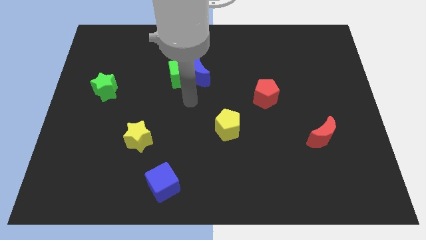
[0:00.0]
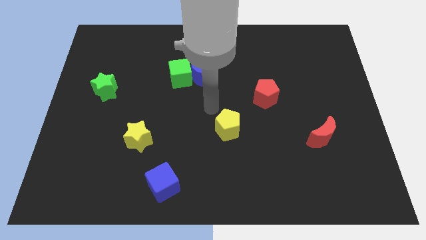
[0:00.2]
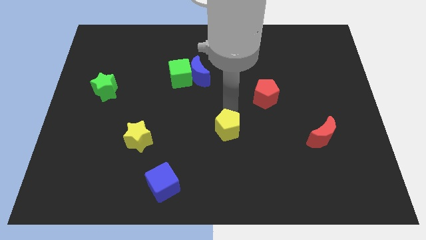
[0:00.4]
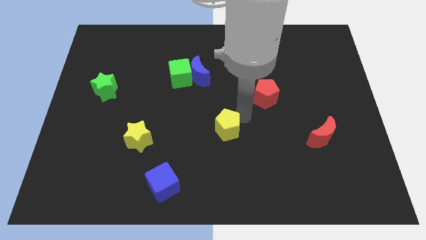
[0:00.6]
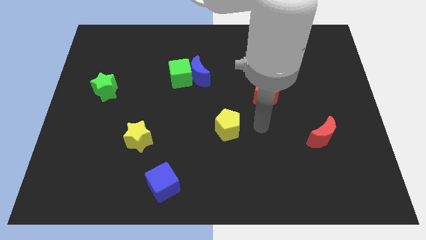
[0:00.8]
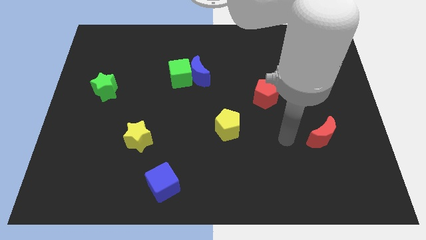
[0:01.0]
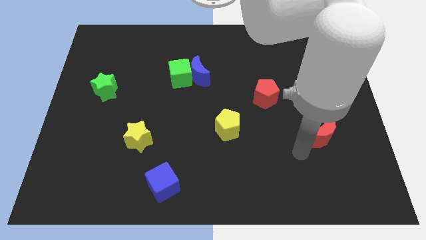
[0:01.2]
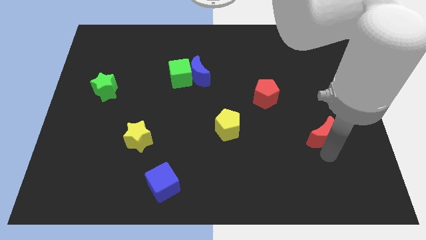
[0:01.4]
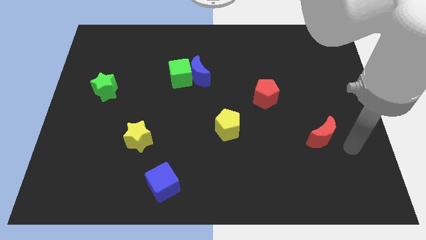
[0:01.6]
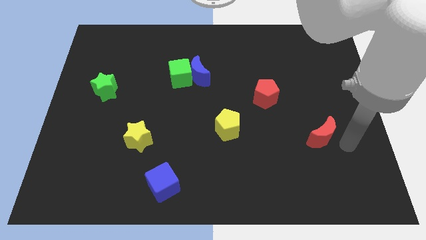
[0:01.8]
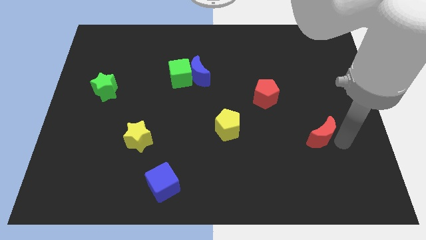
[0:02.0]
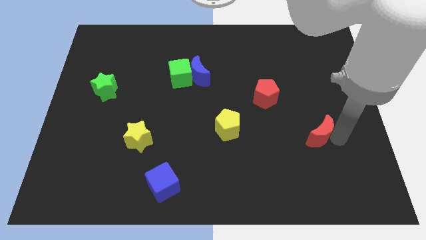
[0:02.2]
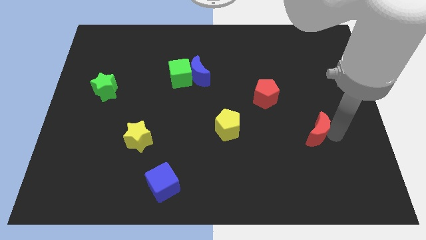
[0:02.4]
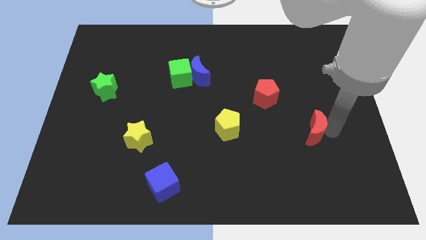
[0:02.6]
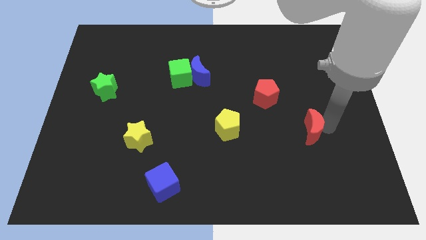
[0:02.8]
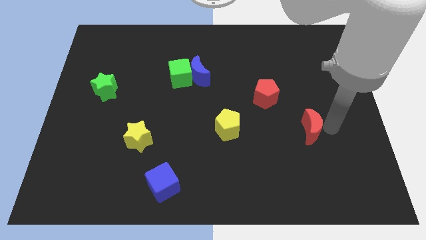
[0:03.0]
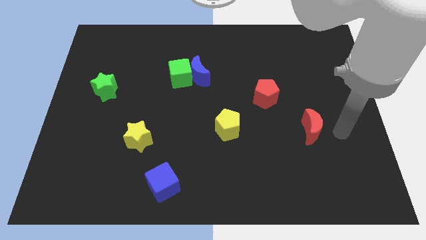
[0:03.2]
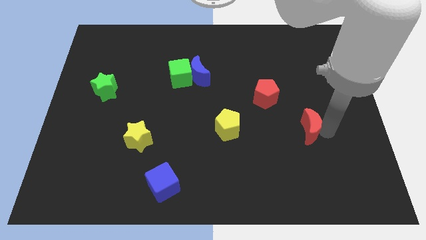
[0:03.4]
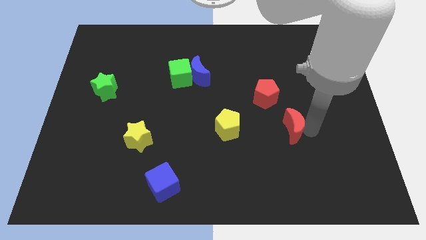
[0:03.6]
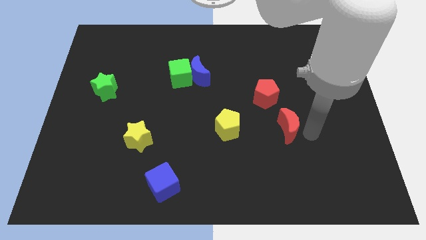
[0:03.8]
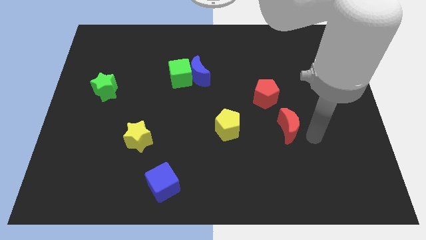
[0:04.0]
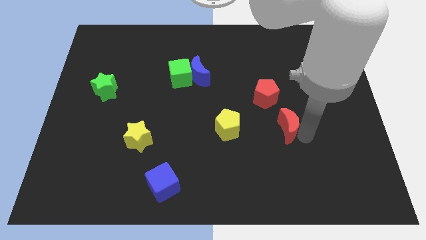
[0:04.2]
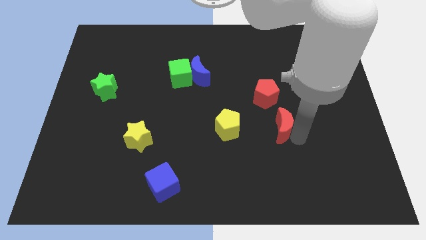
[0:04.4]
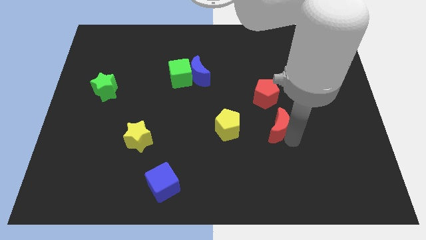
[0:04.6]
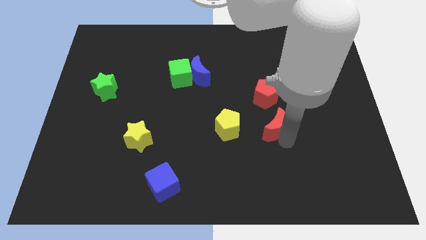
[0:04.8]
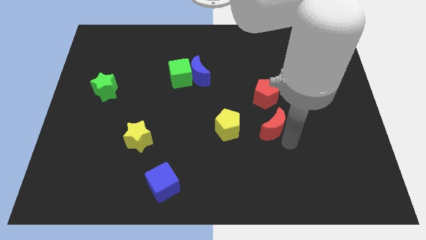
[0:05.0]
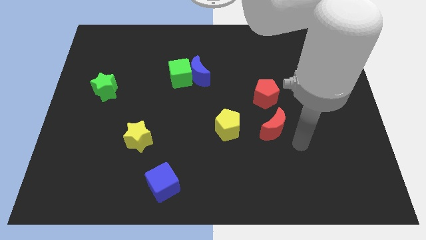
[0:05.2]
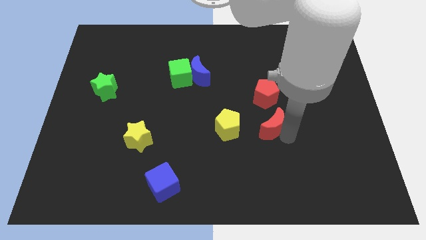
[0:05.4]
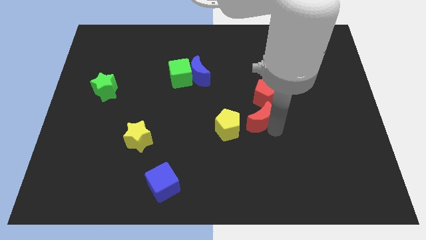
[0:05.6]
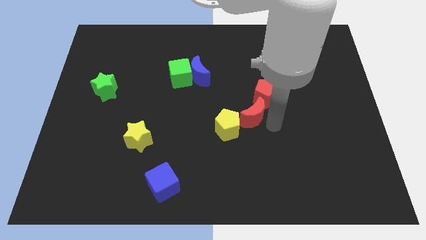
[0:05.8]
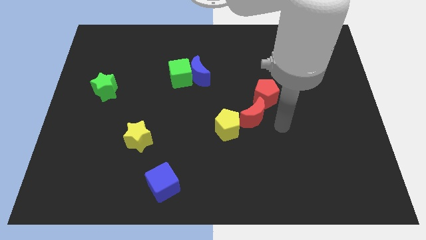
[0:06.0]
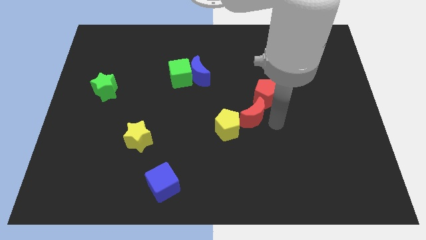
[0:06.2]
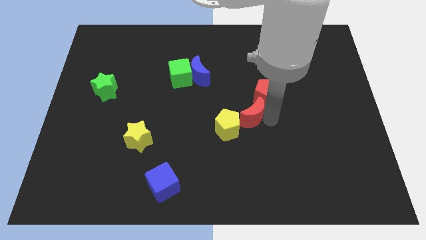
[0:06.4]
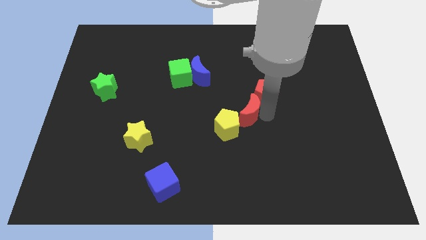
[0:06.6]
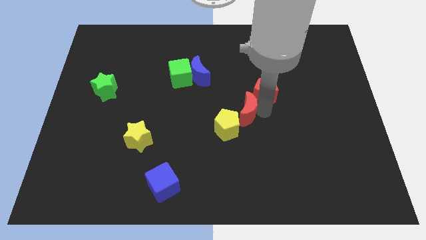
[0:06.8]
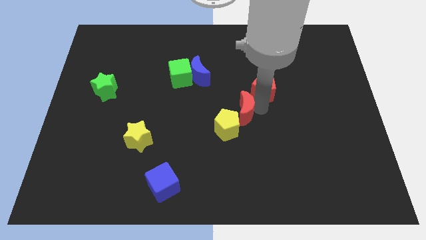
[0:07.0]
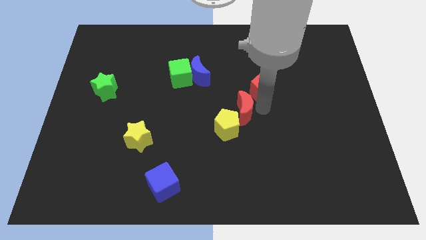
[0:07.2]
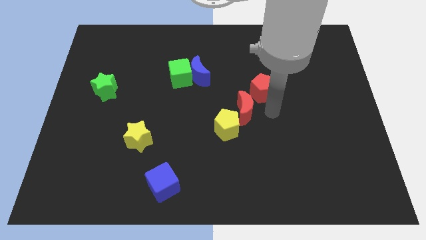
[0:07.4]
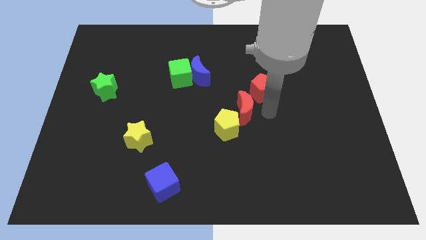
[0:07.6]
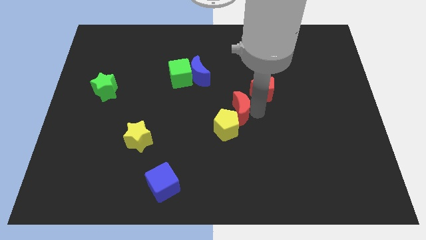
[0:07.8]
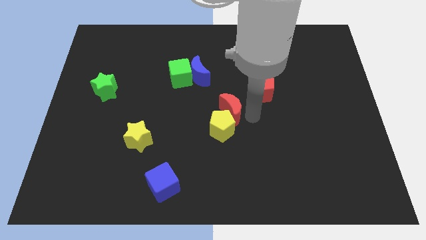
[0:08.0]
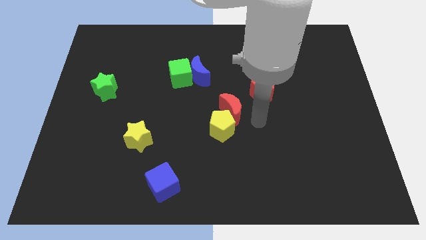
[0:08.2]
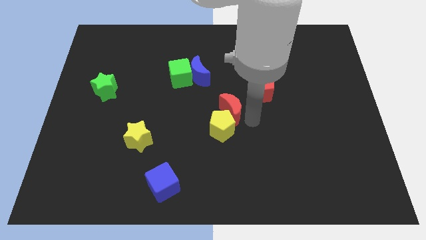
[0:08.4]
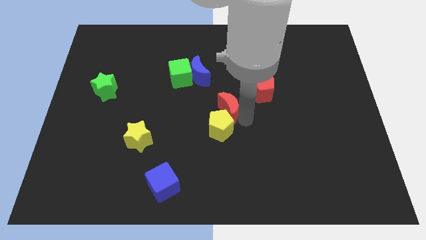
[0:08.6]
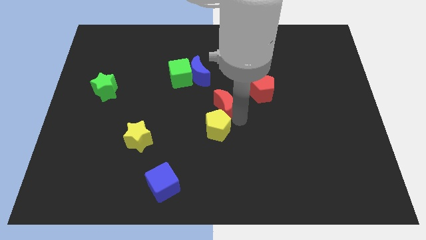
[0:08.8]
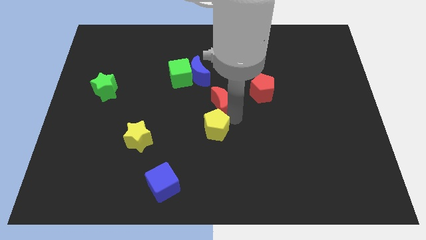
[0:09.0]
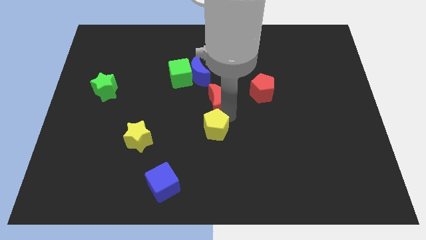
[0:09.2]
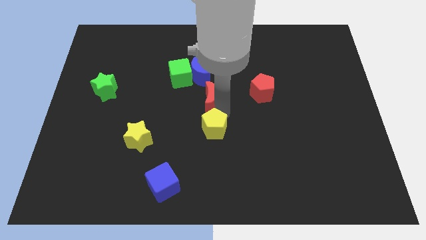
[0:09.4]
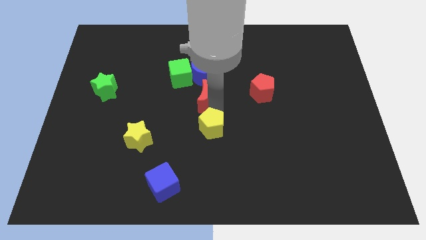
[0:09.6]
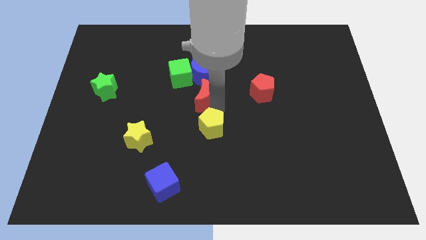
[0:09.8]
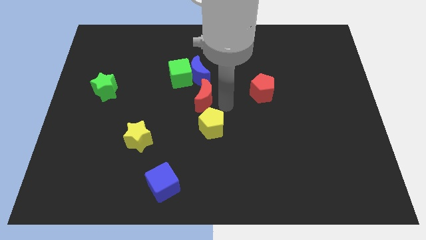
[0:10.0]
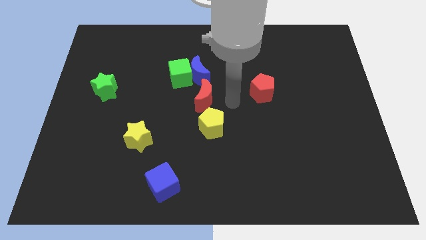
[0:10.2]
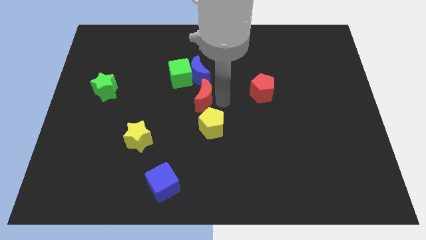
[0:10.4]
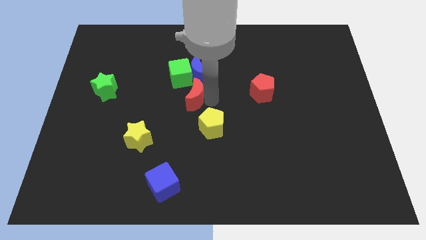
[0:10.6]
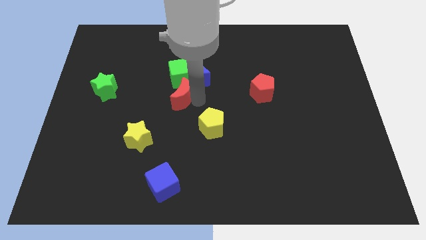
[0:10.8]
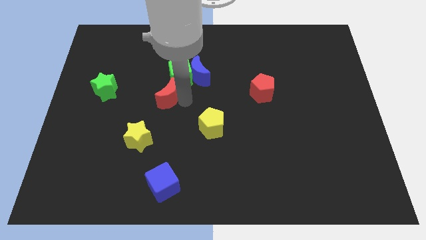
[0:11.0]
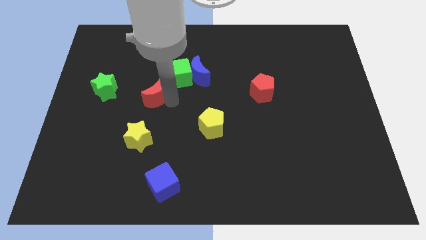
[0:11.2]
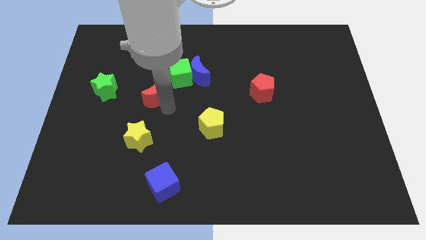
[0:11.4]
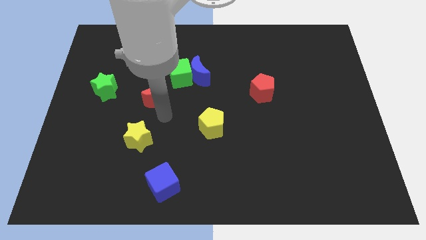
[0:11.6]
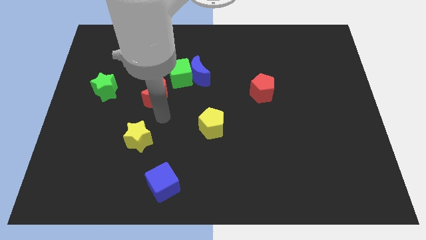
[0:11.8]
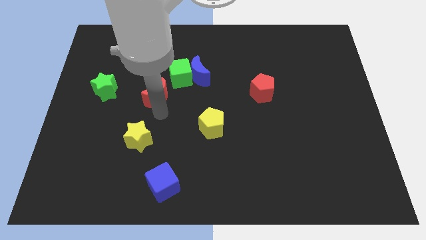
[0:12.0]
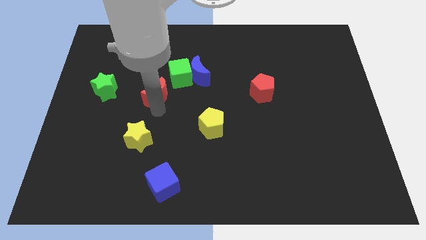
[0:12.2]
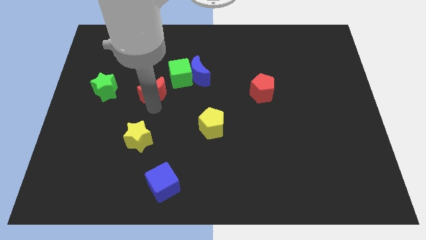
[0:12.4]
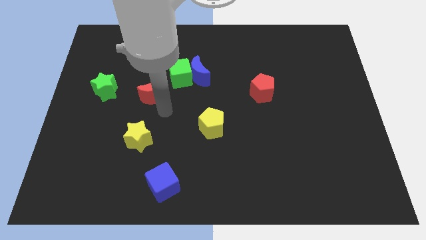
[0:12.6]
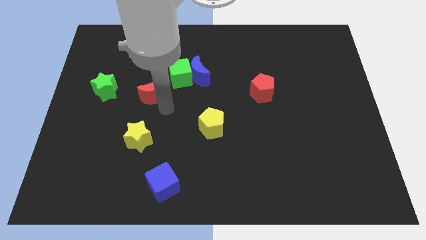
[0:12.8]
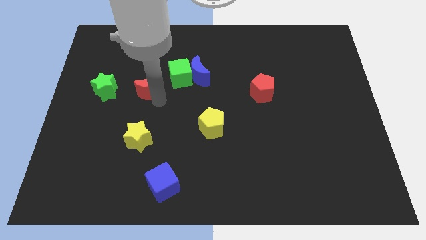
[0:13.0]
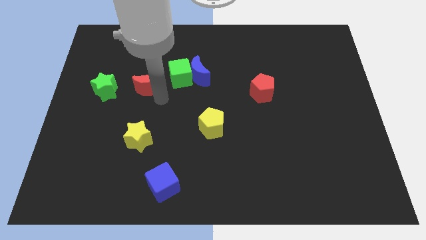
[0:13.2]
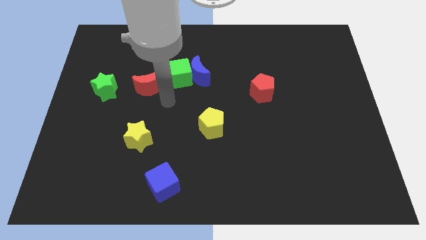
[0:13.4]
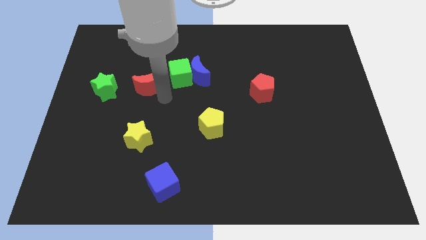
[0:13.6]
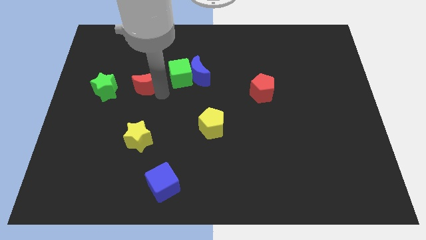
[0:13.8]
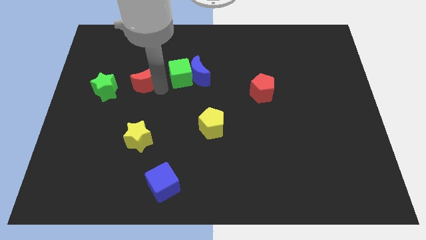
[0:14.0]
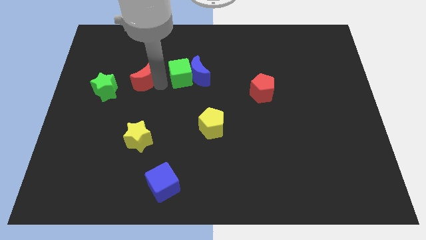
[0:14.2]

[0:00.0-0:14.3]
slide the red moon diagonally up and to the right of the green star
